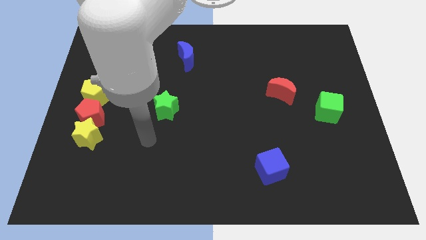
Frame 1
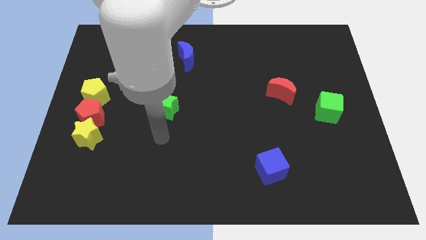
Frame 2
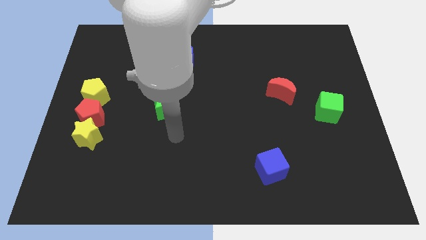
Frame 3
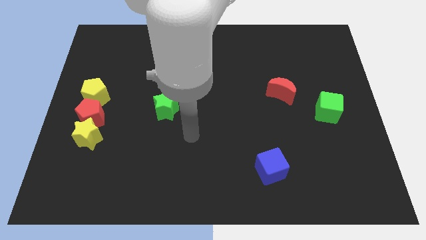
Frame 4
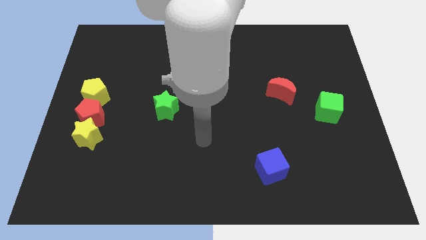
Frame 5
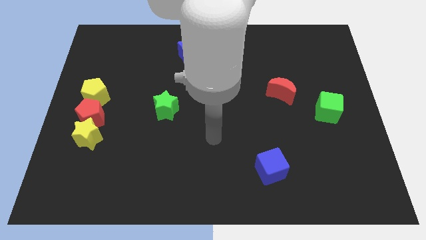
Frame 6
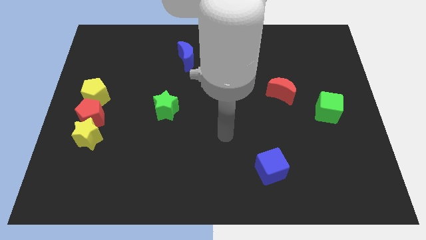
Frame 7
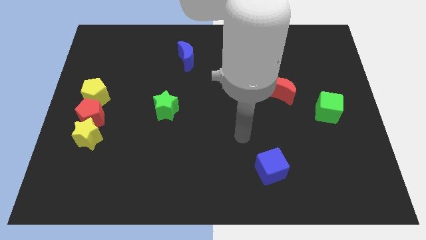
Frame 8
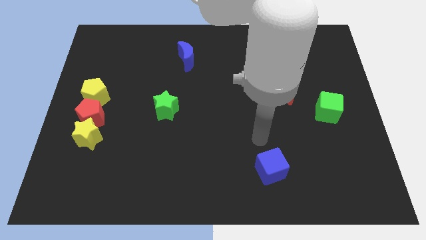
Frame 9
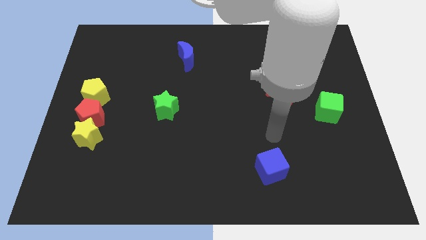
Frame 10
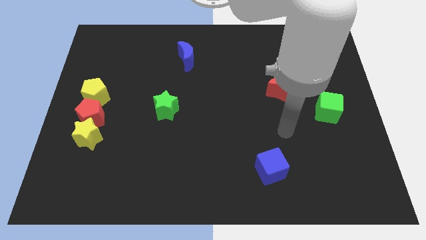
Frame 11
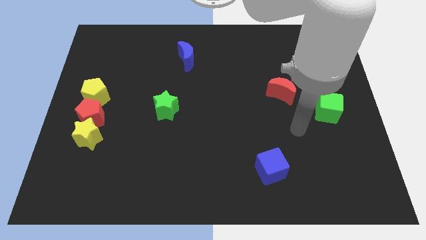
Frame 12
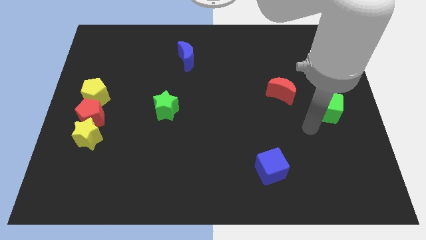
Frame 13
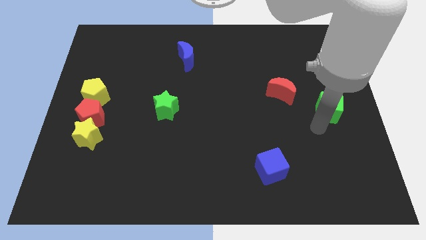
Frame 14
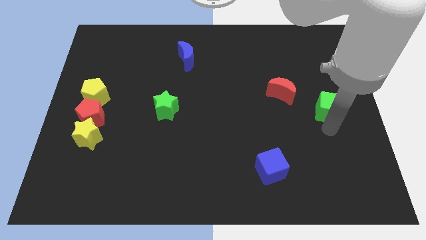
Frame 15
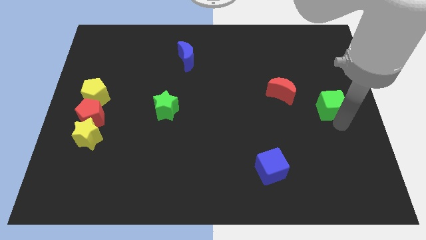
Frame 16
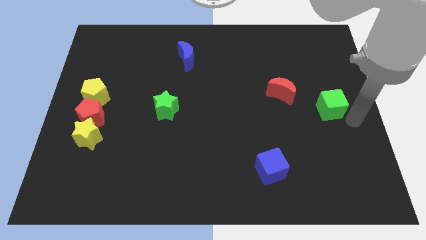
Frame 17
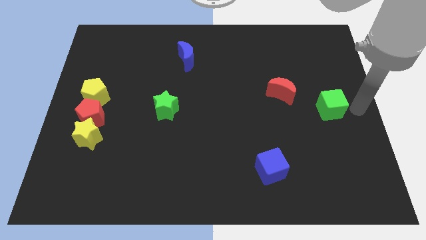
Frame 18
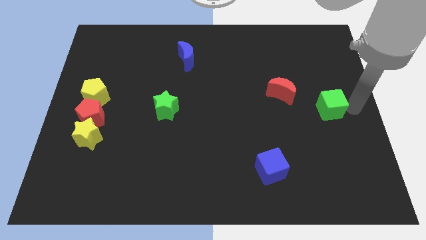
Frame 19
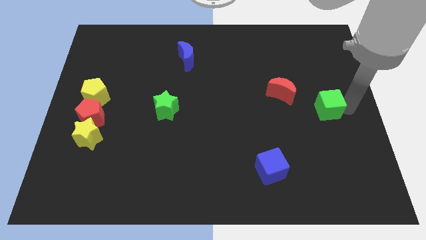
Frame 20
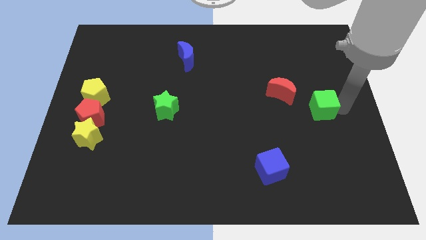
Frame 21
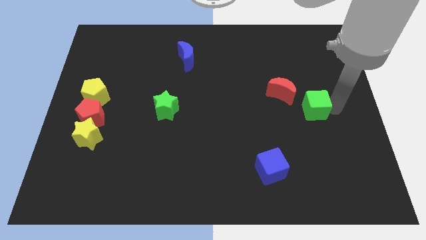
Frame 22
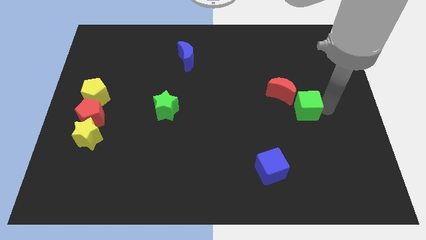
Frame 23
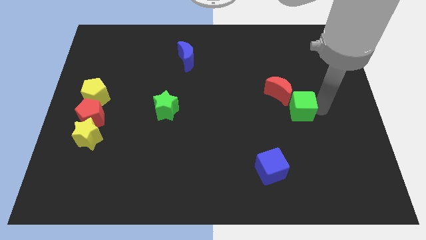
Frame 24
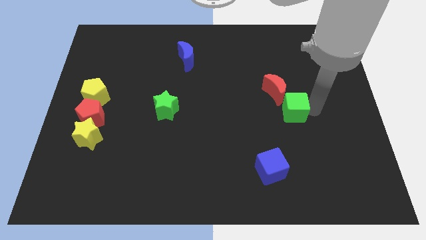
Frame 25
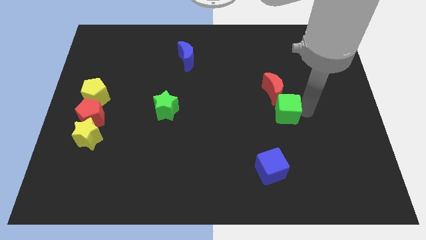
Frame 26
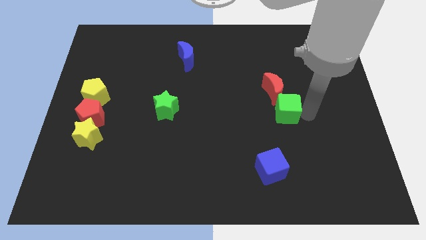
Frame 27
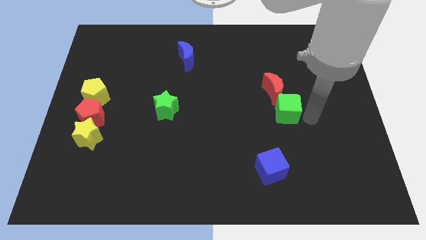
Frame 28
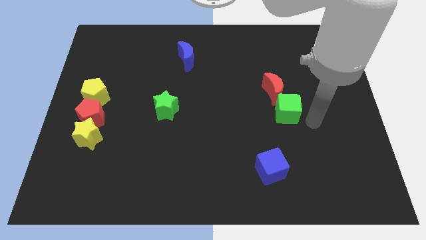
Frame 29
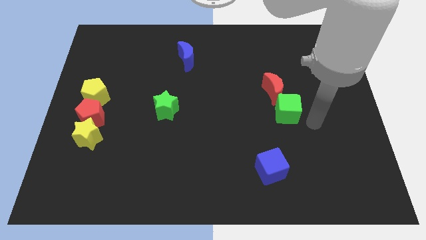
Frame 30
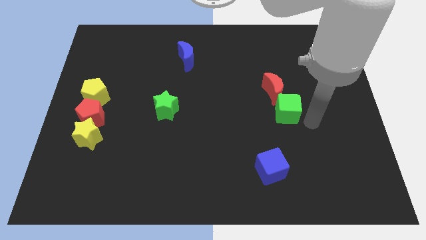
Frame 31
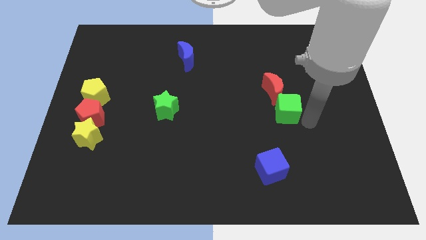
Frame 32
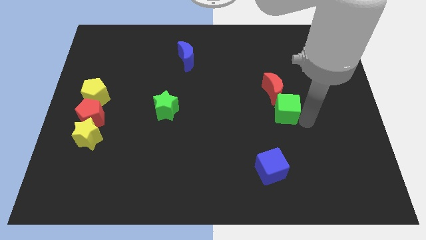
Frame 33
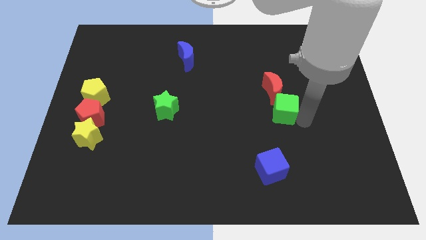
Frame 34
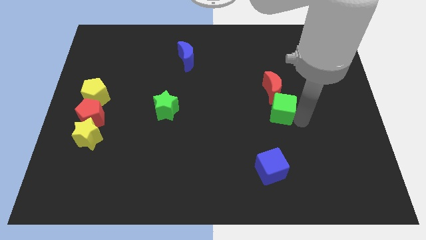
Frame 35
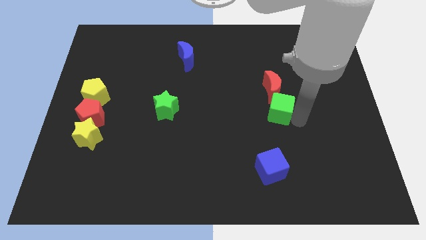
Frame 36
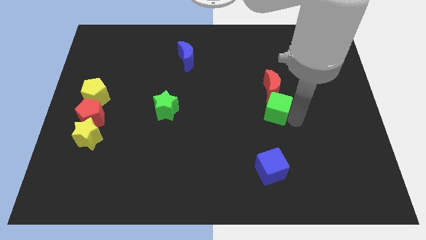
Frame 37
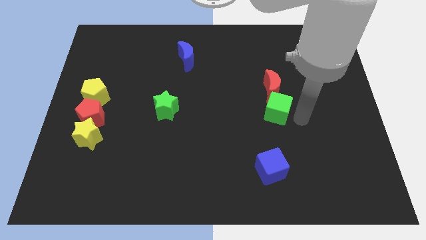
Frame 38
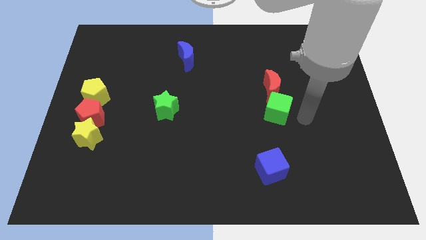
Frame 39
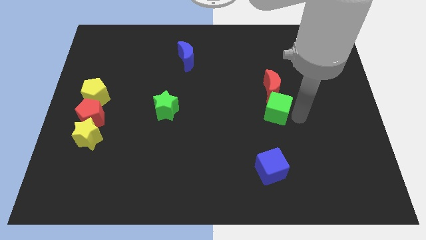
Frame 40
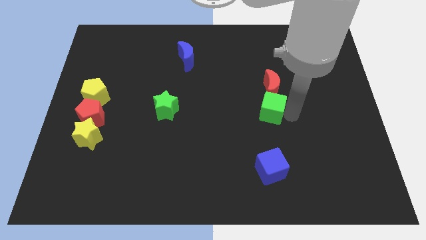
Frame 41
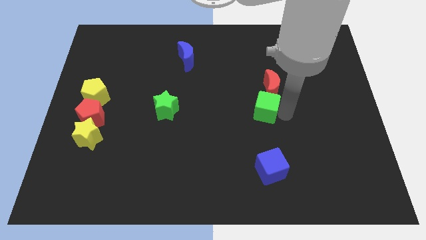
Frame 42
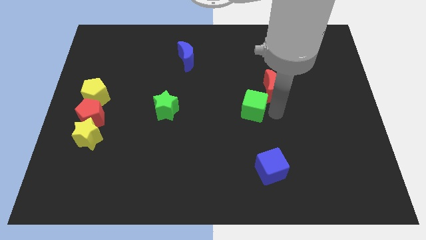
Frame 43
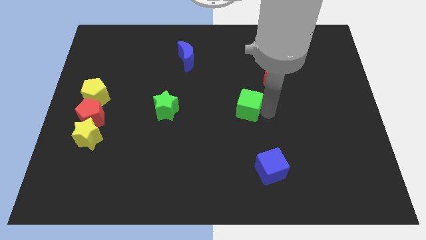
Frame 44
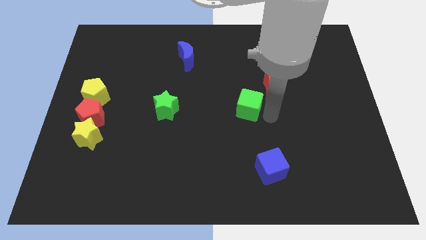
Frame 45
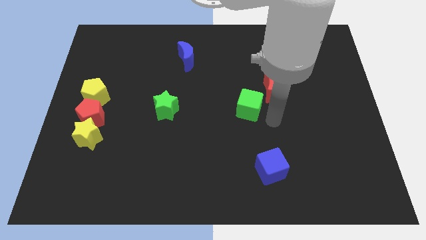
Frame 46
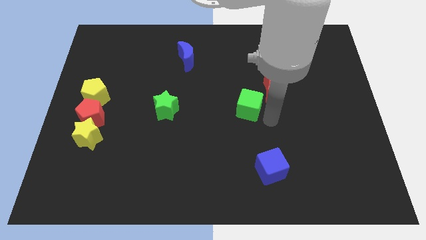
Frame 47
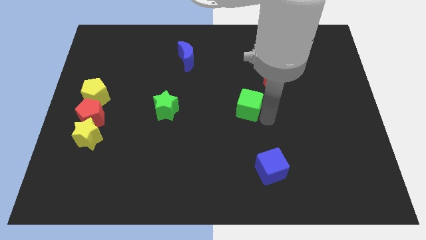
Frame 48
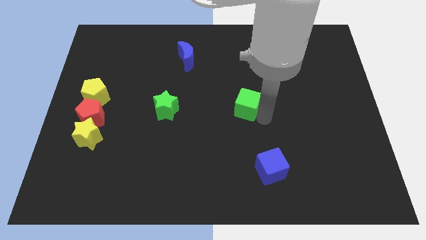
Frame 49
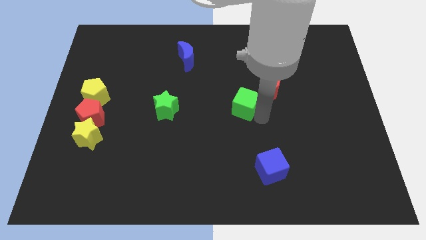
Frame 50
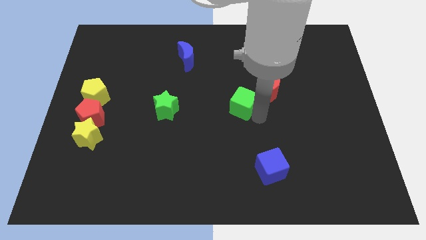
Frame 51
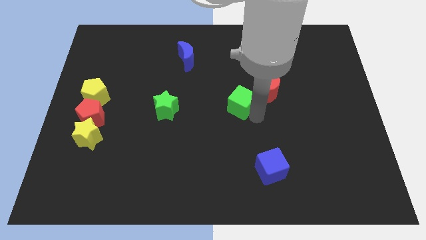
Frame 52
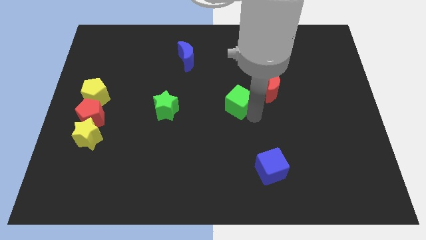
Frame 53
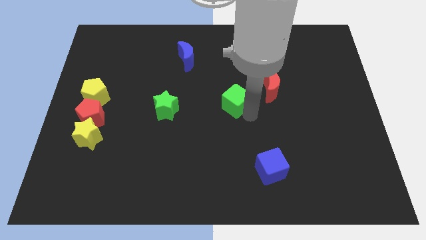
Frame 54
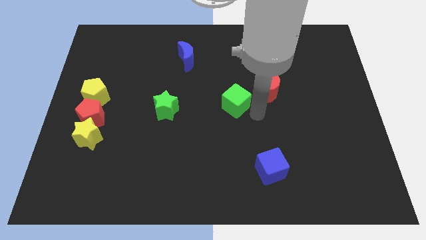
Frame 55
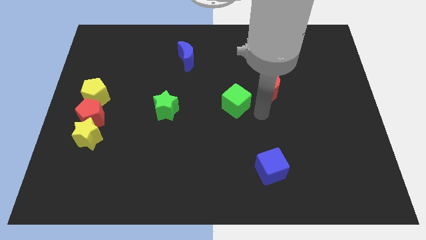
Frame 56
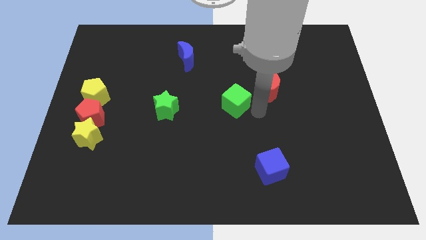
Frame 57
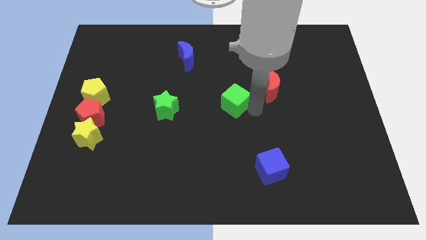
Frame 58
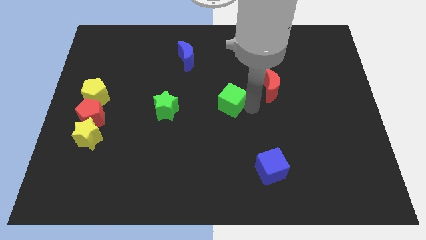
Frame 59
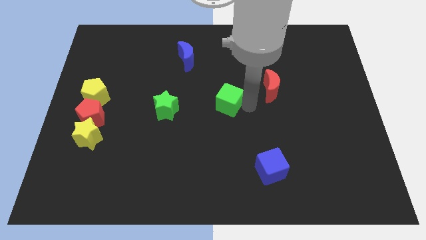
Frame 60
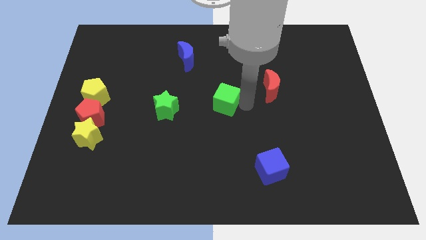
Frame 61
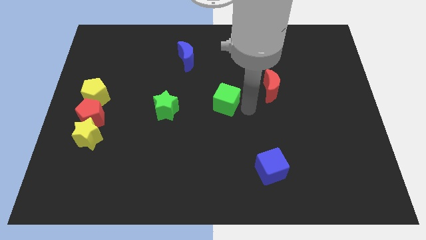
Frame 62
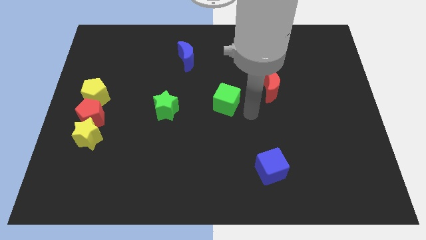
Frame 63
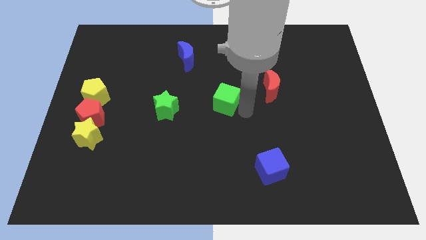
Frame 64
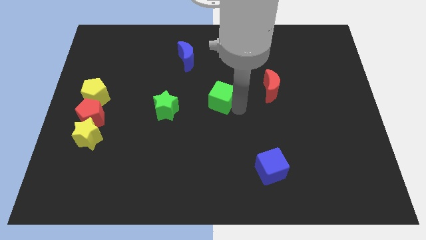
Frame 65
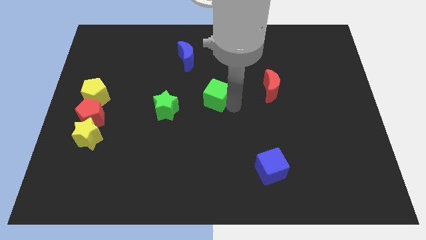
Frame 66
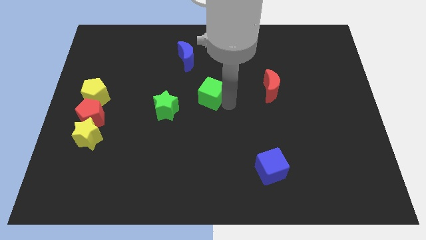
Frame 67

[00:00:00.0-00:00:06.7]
push the green cube to the top right side of the green star

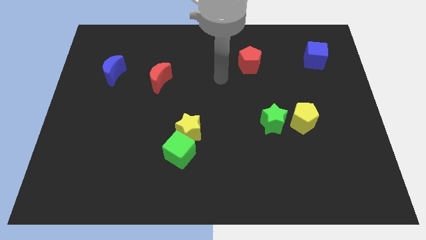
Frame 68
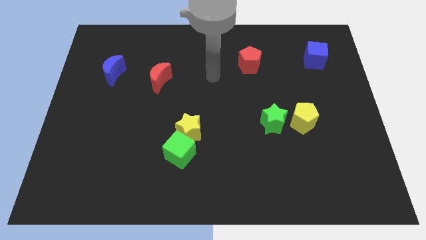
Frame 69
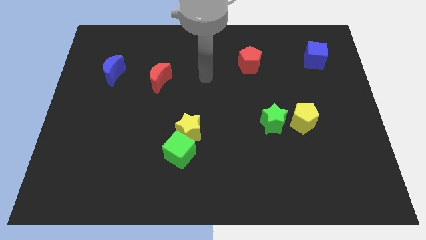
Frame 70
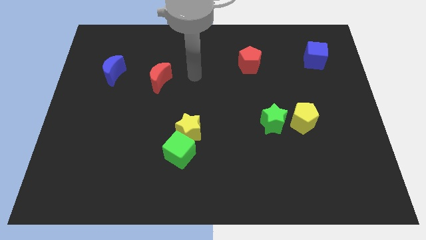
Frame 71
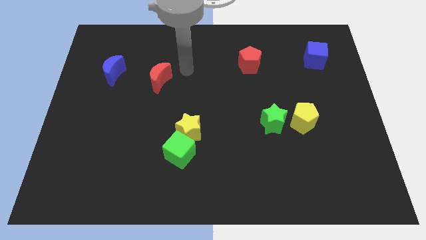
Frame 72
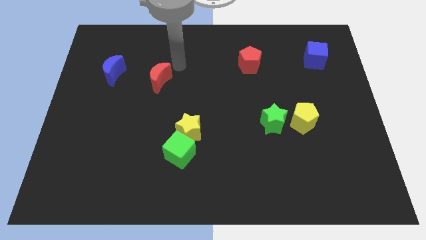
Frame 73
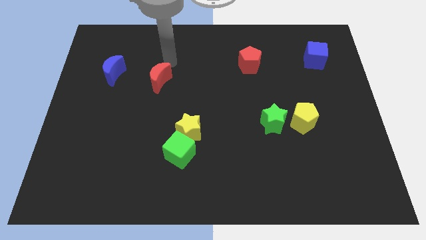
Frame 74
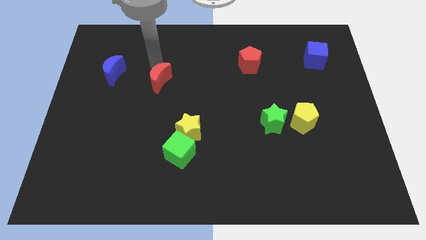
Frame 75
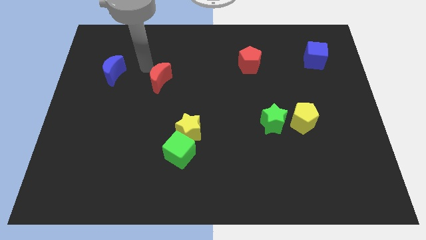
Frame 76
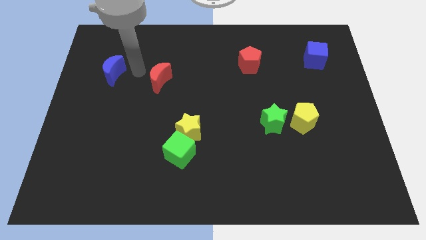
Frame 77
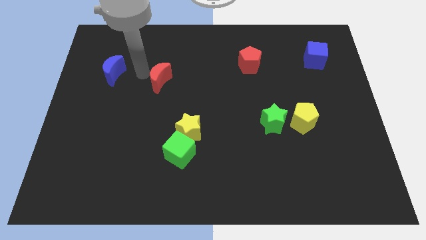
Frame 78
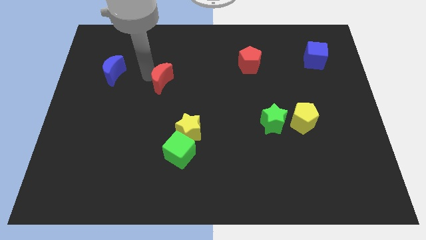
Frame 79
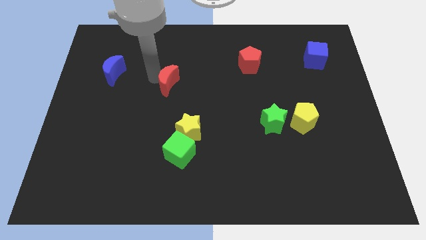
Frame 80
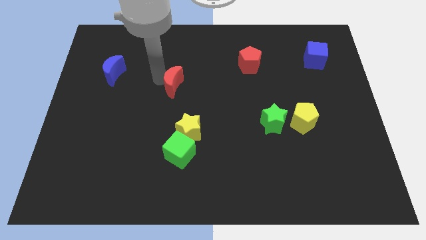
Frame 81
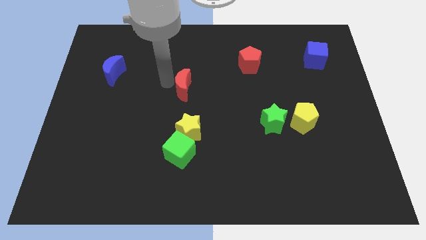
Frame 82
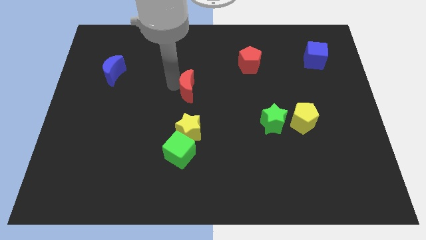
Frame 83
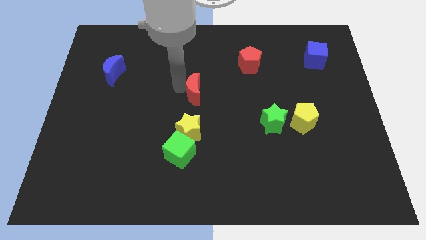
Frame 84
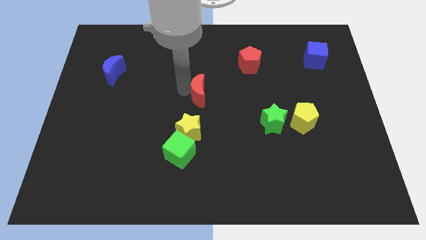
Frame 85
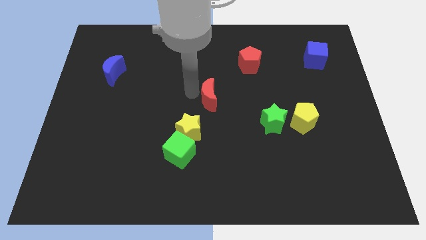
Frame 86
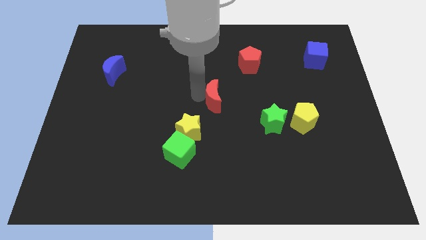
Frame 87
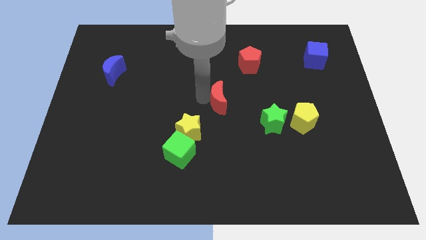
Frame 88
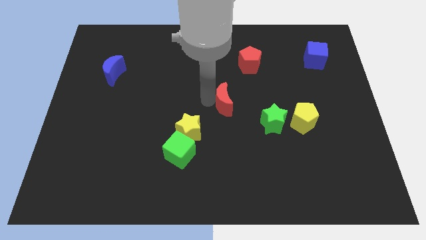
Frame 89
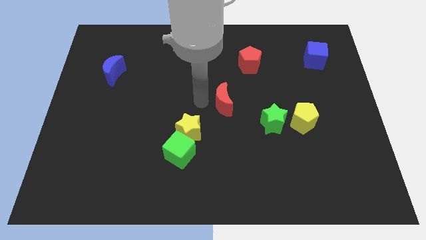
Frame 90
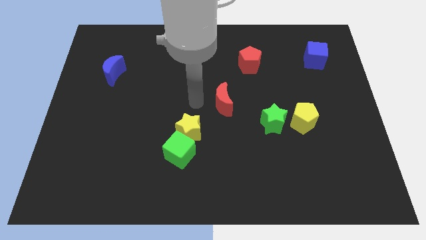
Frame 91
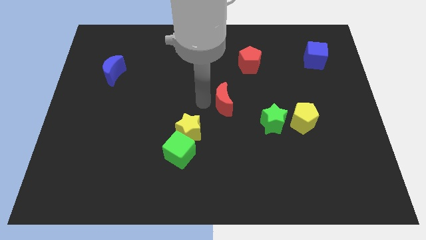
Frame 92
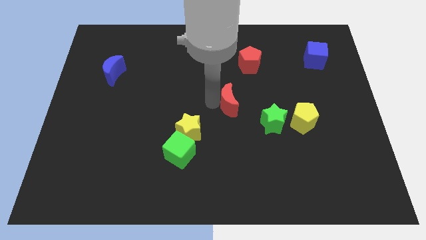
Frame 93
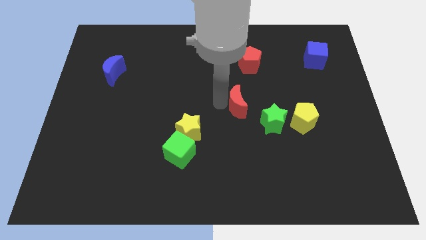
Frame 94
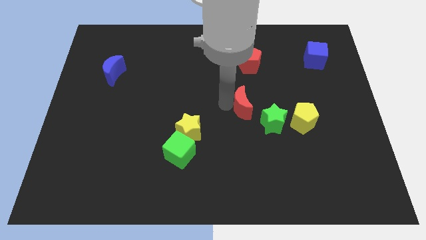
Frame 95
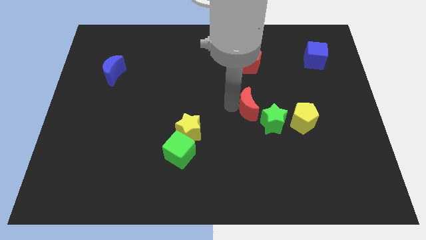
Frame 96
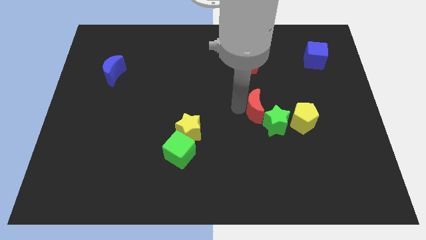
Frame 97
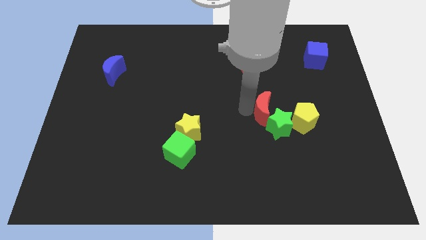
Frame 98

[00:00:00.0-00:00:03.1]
push the red moon to the top left side of the yellow pentagon
